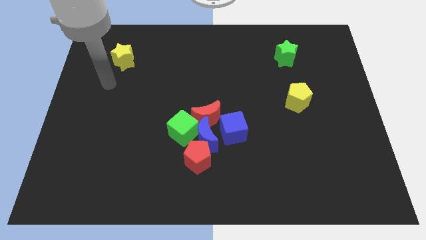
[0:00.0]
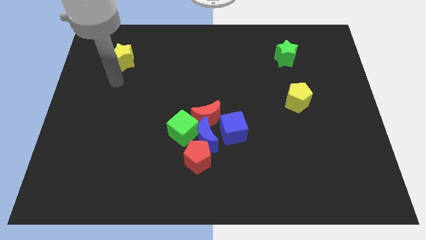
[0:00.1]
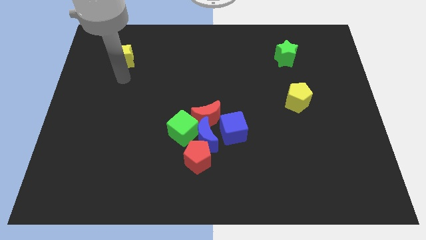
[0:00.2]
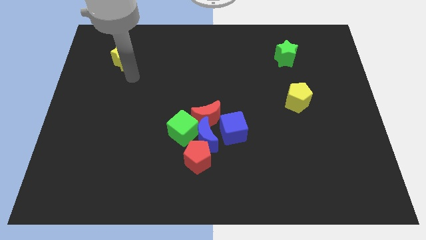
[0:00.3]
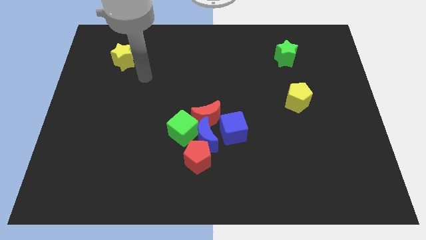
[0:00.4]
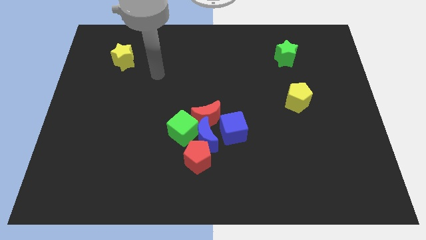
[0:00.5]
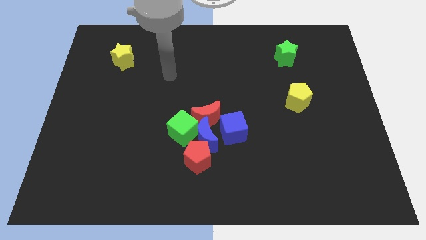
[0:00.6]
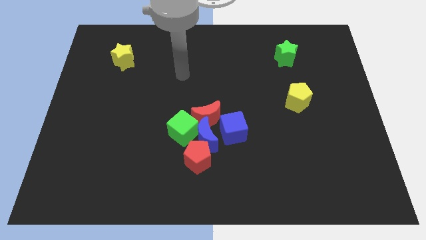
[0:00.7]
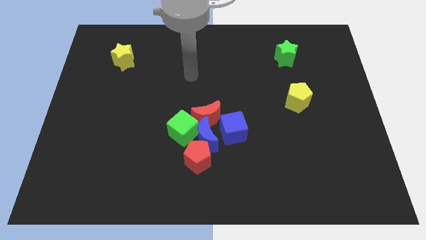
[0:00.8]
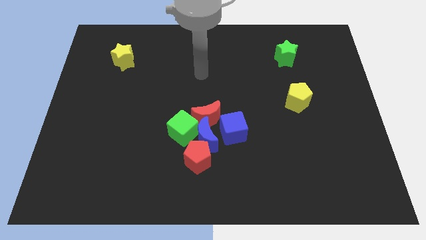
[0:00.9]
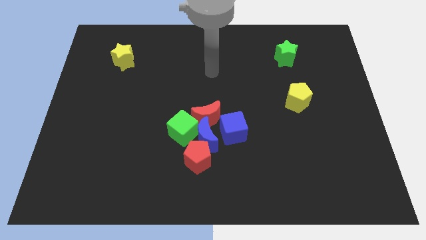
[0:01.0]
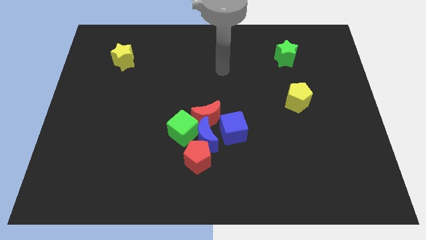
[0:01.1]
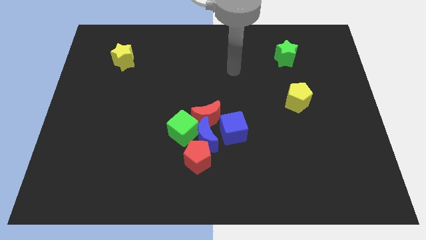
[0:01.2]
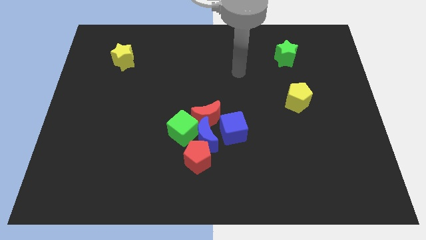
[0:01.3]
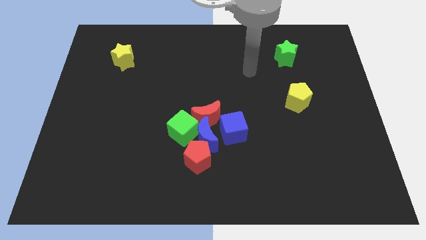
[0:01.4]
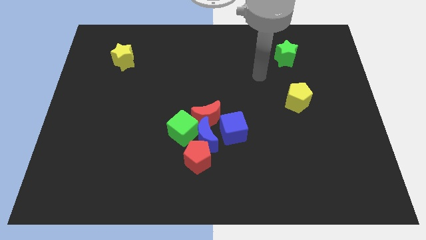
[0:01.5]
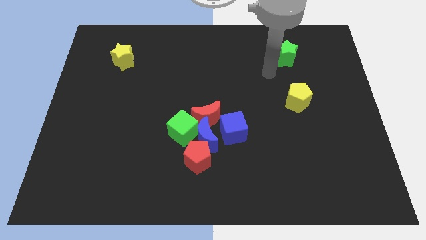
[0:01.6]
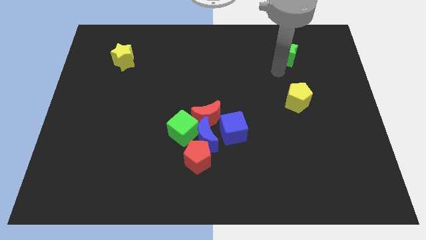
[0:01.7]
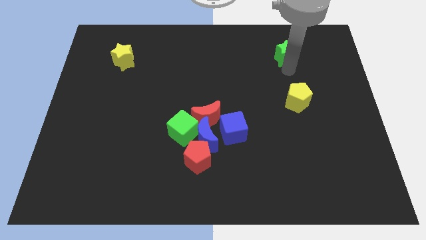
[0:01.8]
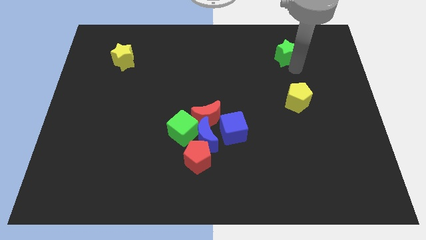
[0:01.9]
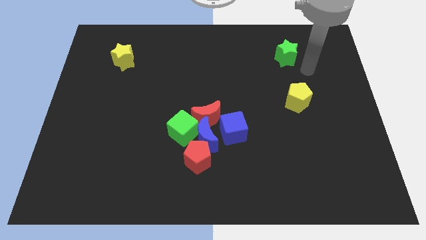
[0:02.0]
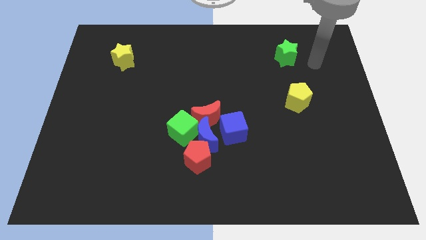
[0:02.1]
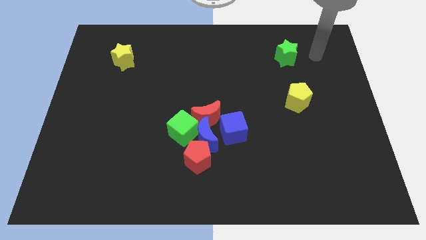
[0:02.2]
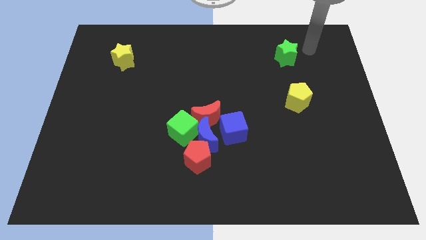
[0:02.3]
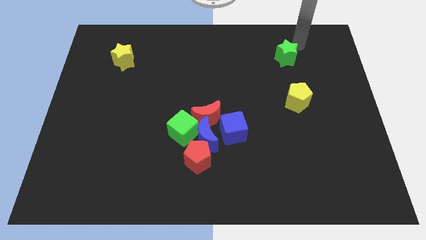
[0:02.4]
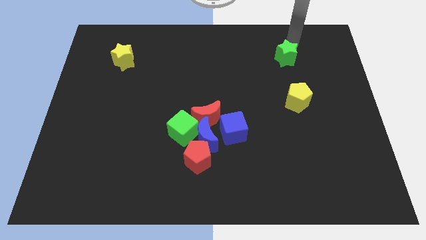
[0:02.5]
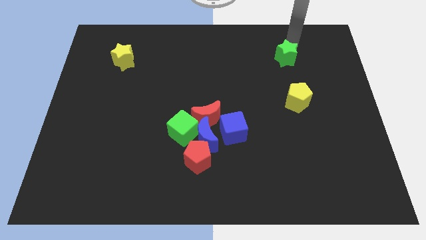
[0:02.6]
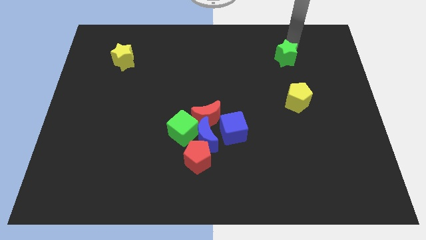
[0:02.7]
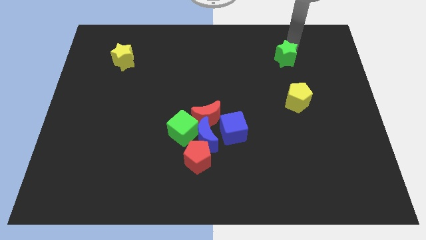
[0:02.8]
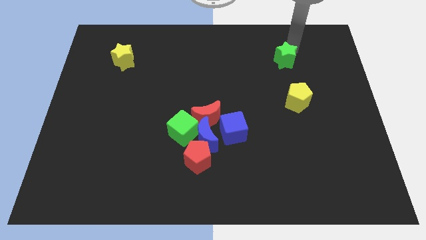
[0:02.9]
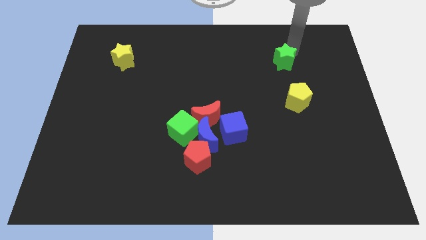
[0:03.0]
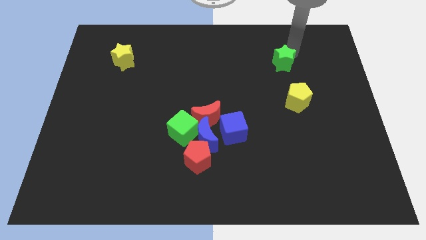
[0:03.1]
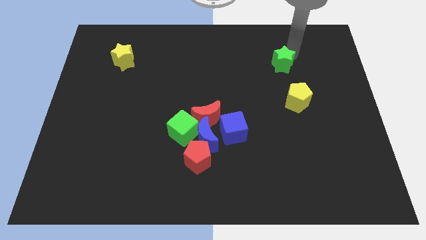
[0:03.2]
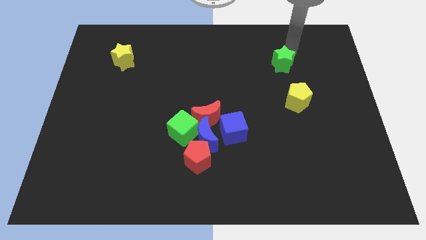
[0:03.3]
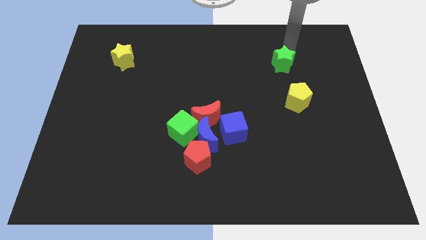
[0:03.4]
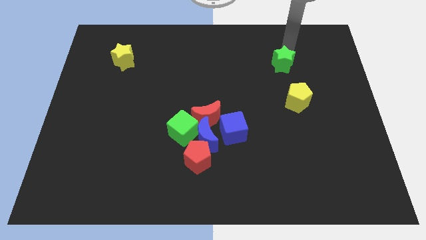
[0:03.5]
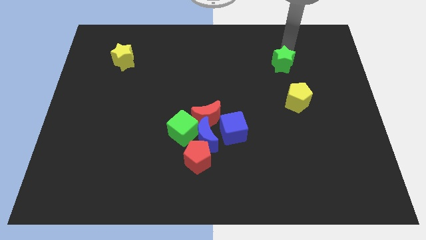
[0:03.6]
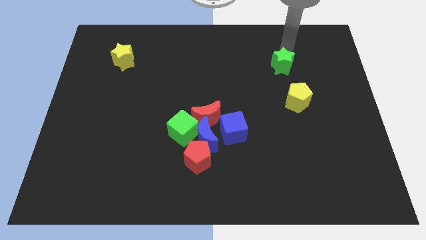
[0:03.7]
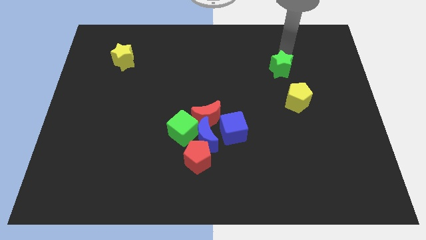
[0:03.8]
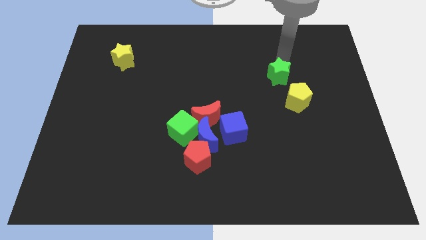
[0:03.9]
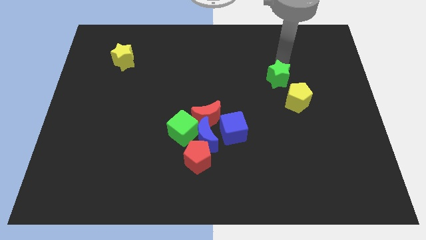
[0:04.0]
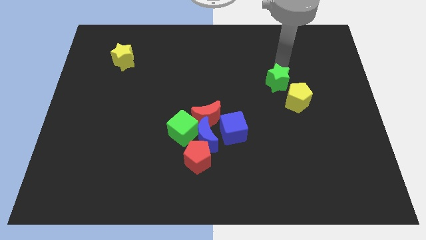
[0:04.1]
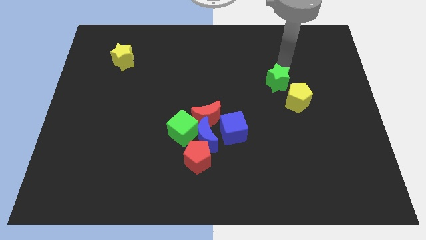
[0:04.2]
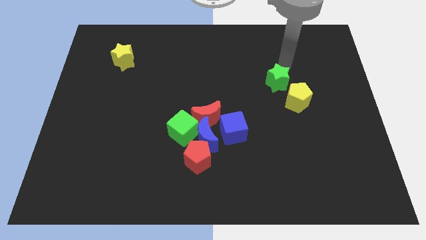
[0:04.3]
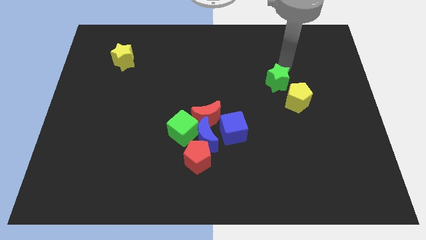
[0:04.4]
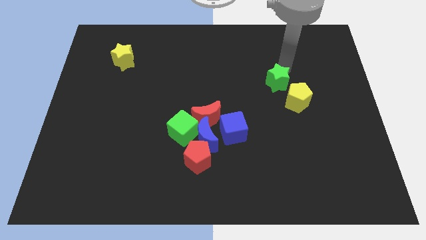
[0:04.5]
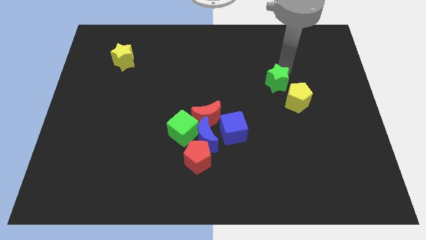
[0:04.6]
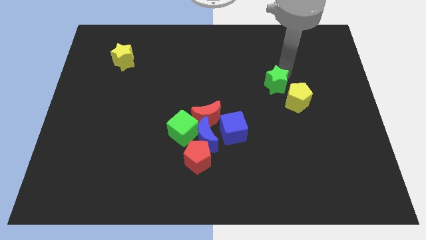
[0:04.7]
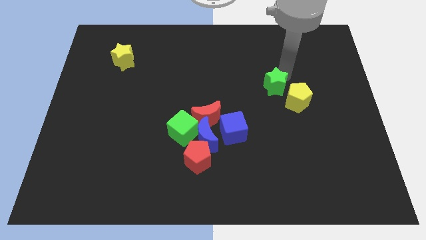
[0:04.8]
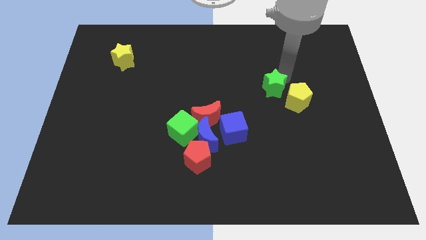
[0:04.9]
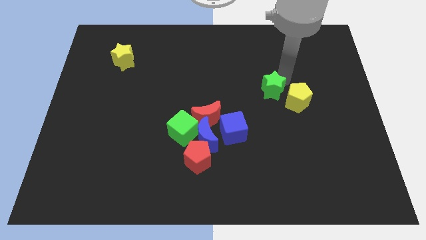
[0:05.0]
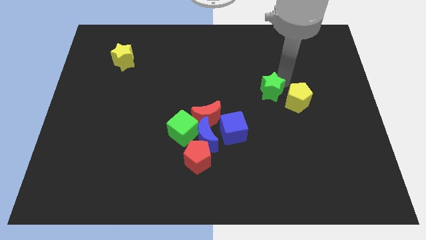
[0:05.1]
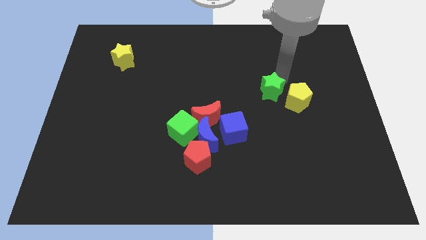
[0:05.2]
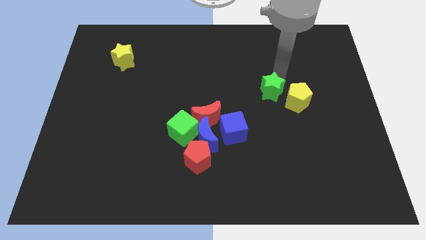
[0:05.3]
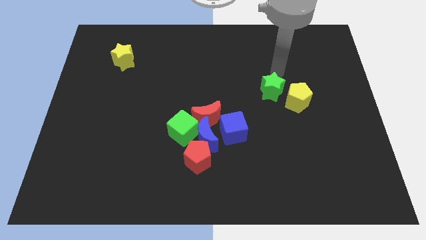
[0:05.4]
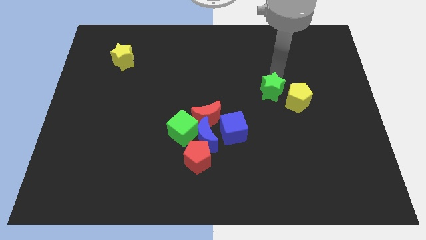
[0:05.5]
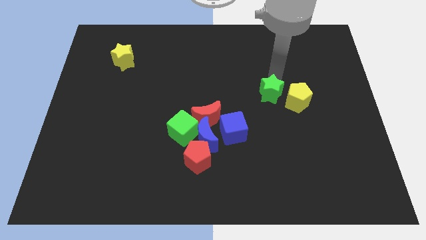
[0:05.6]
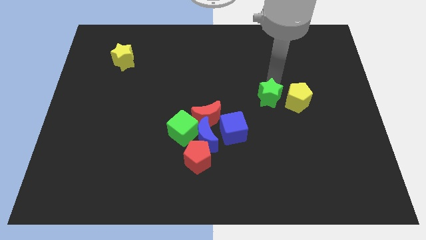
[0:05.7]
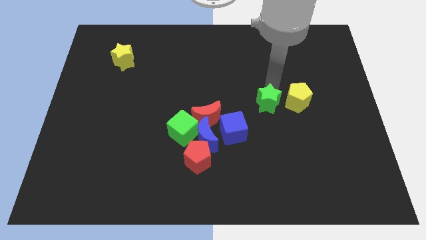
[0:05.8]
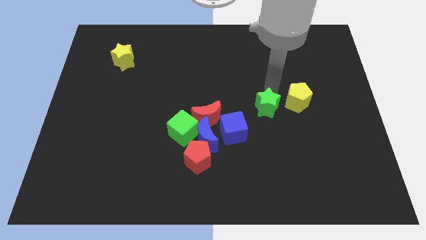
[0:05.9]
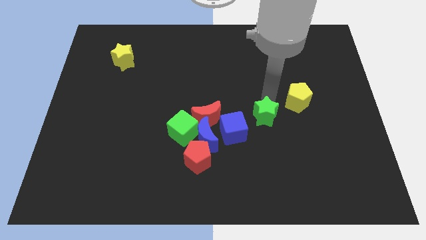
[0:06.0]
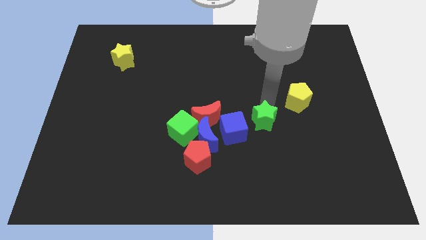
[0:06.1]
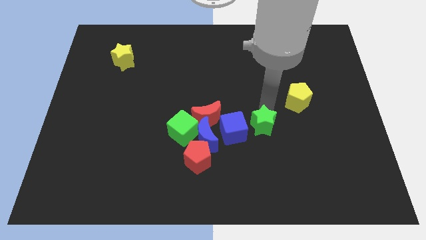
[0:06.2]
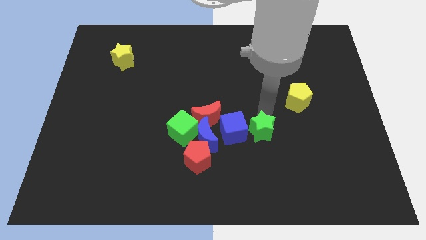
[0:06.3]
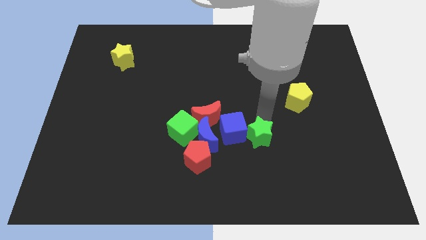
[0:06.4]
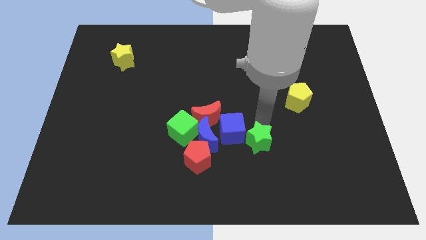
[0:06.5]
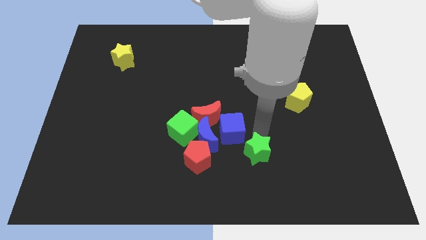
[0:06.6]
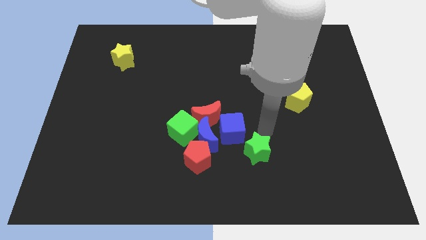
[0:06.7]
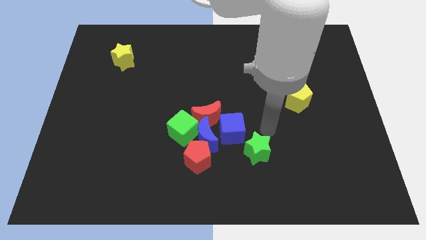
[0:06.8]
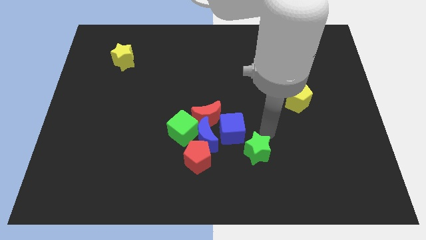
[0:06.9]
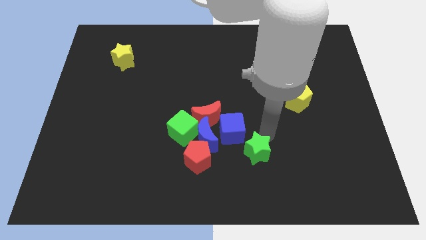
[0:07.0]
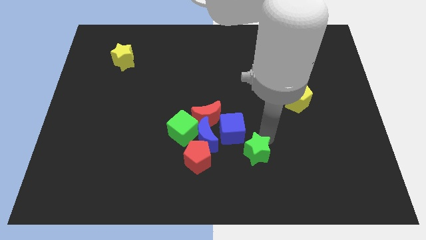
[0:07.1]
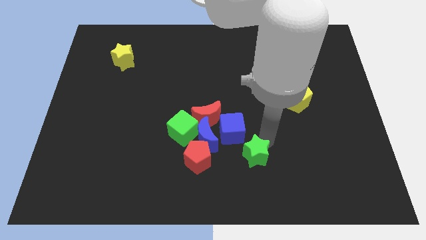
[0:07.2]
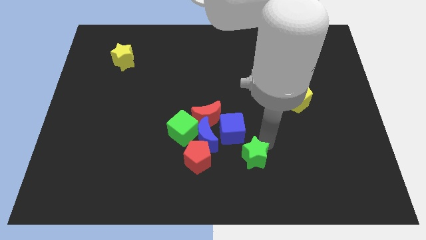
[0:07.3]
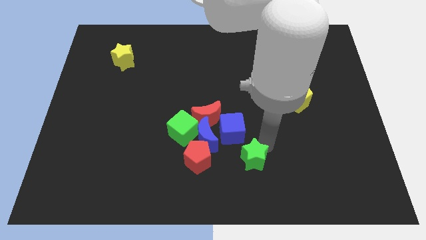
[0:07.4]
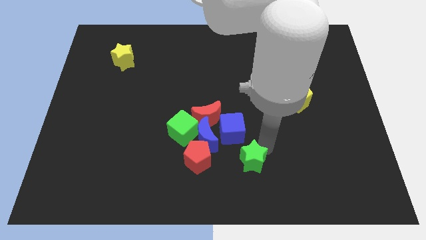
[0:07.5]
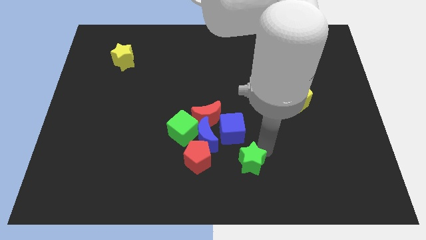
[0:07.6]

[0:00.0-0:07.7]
move the green star to the bottom
